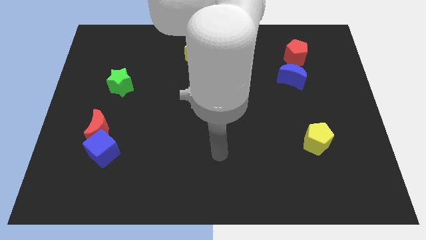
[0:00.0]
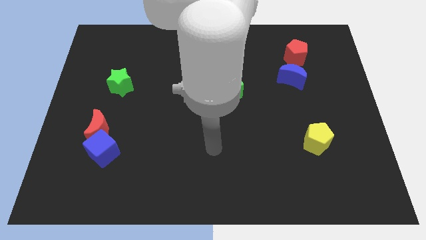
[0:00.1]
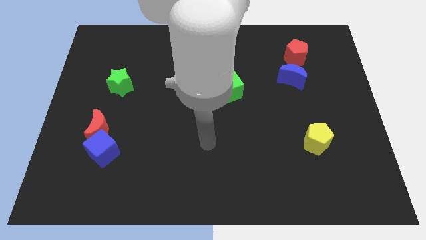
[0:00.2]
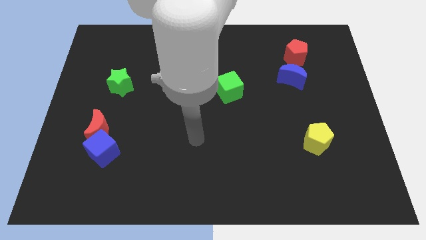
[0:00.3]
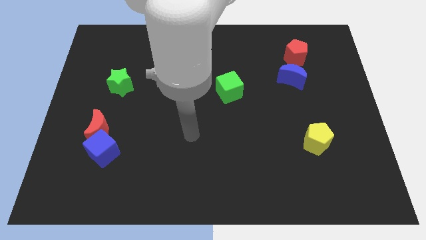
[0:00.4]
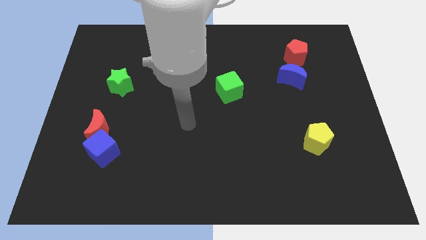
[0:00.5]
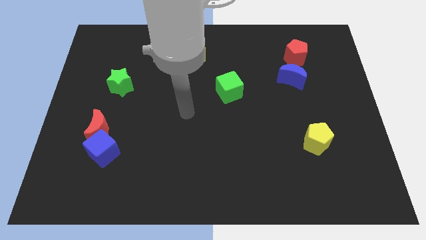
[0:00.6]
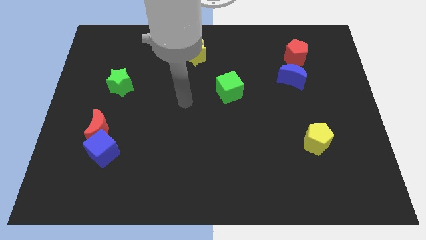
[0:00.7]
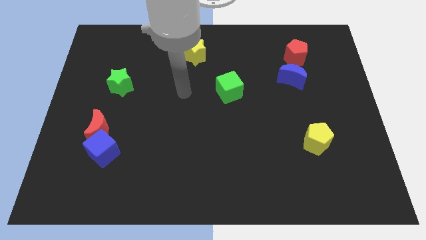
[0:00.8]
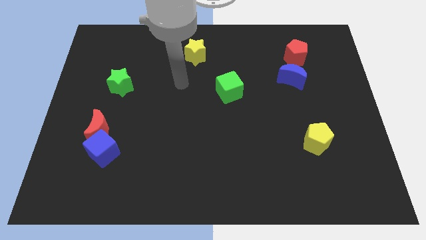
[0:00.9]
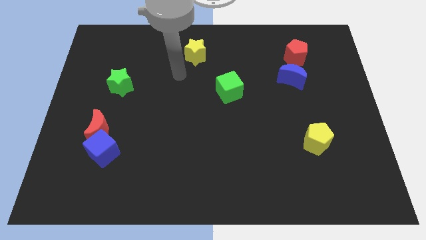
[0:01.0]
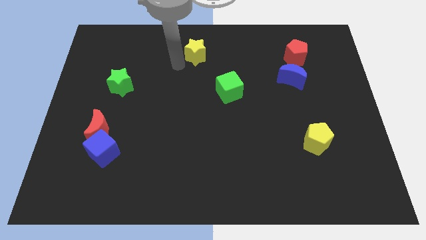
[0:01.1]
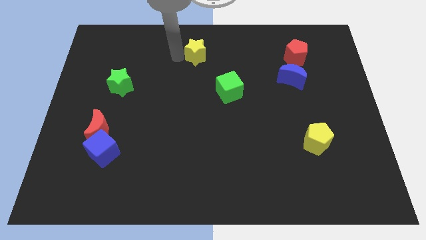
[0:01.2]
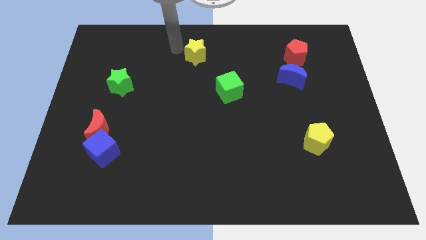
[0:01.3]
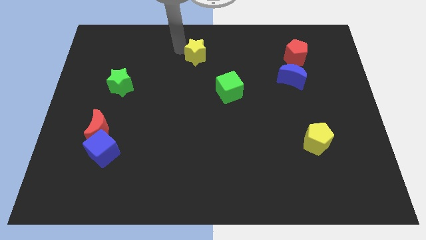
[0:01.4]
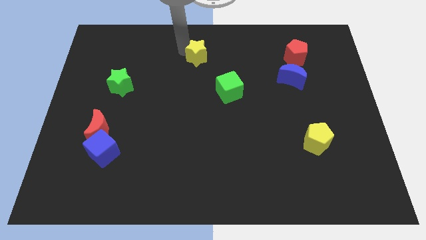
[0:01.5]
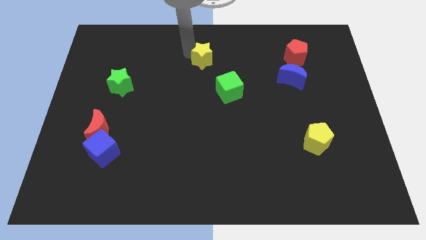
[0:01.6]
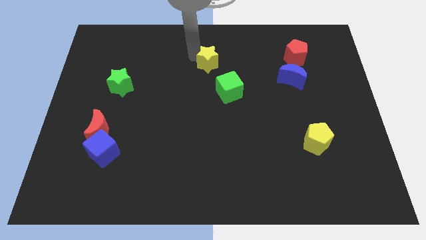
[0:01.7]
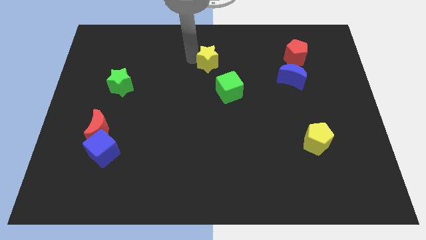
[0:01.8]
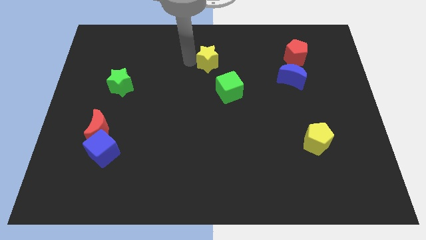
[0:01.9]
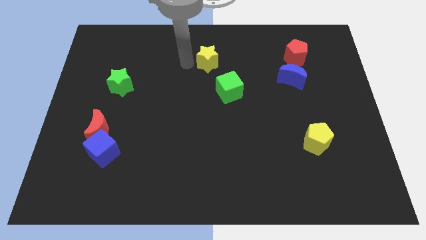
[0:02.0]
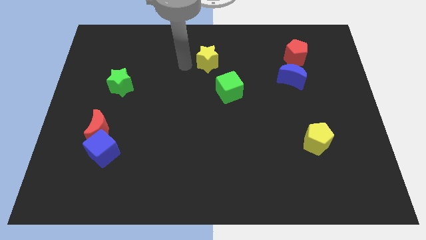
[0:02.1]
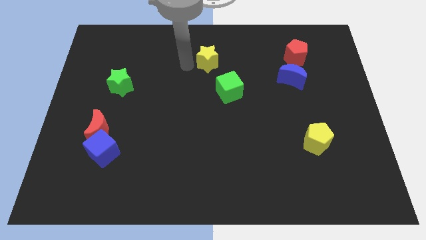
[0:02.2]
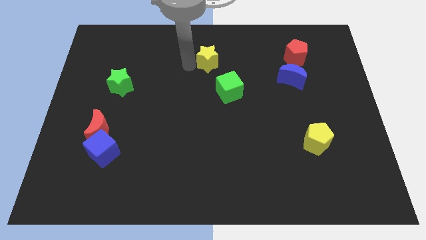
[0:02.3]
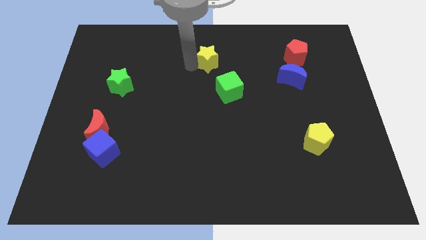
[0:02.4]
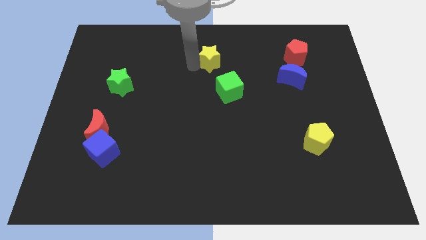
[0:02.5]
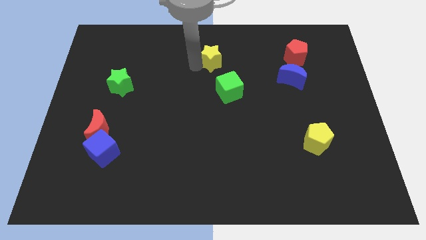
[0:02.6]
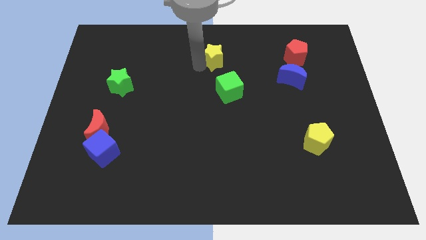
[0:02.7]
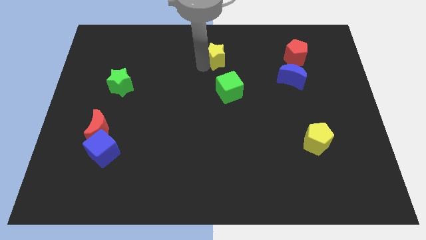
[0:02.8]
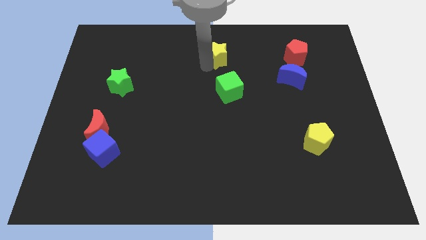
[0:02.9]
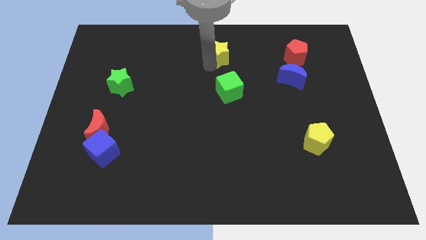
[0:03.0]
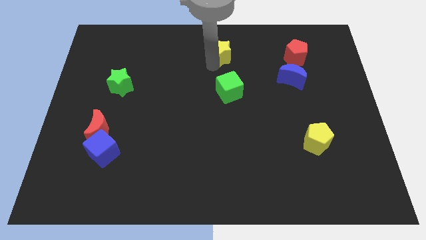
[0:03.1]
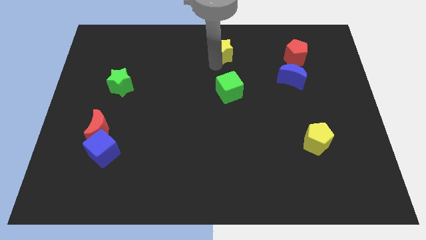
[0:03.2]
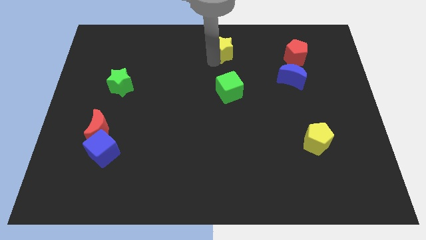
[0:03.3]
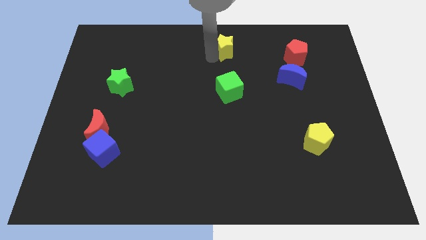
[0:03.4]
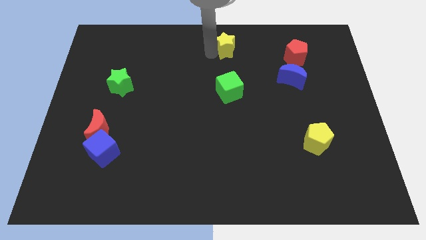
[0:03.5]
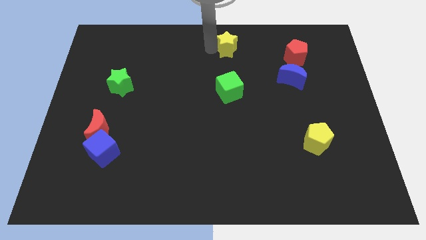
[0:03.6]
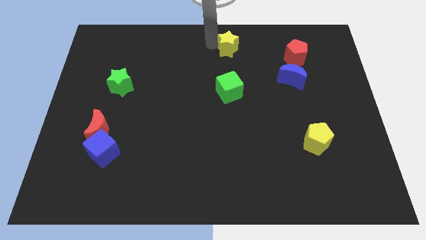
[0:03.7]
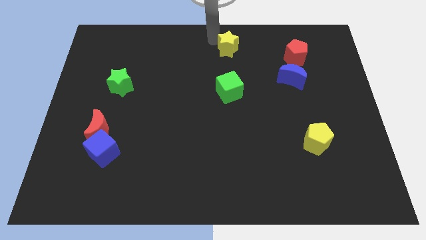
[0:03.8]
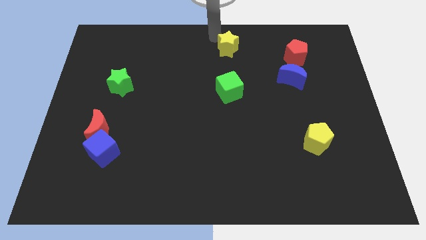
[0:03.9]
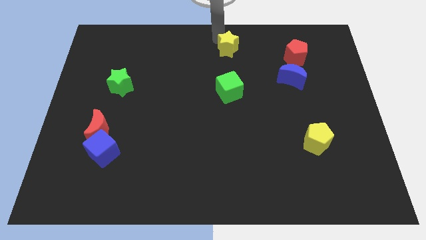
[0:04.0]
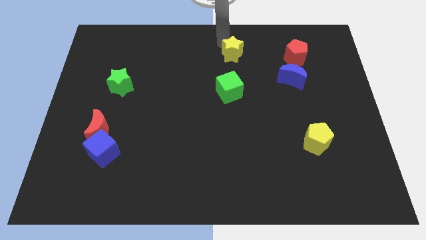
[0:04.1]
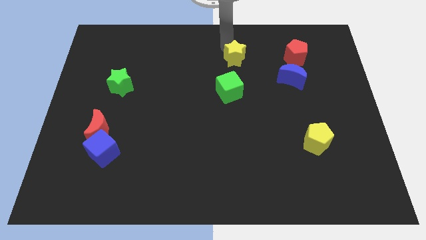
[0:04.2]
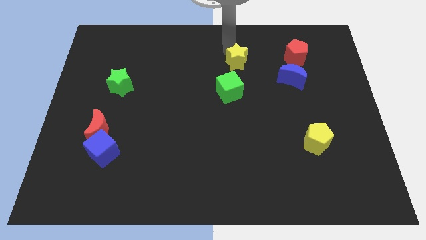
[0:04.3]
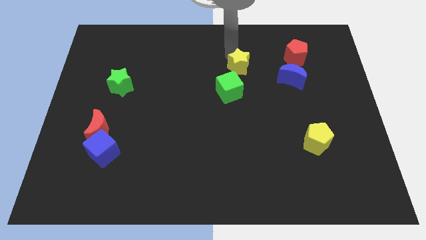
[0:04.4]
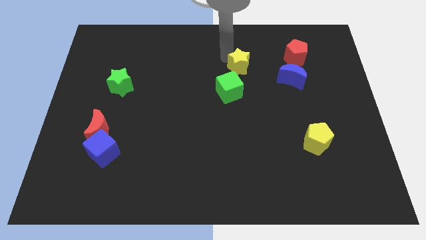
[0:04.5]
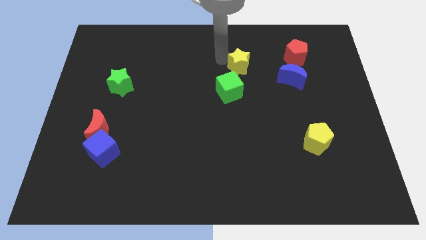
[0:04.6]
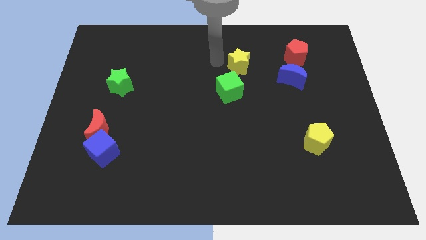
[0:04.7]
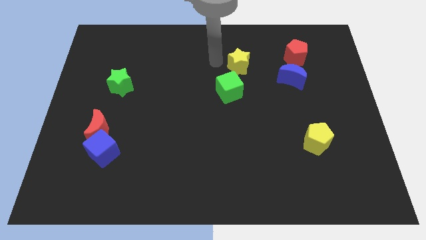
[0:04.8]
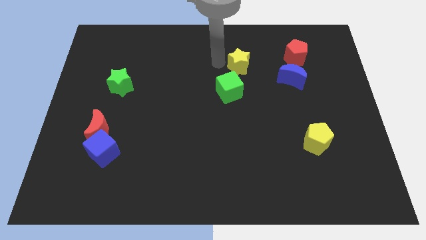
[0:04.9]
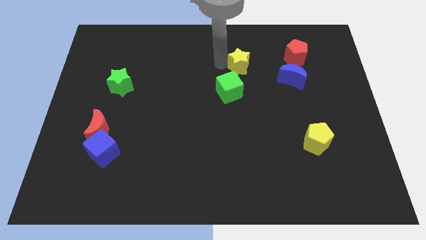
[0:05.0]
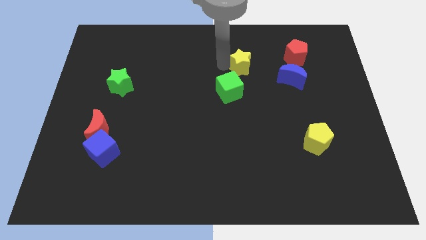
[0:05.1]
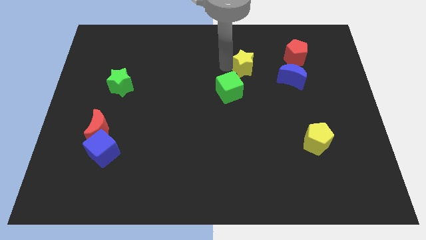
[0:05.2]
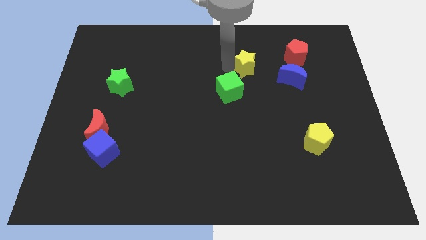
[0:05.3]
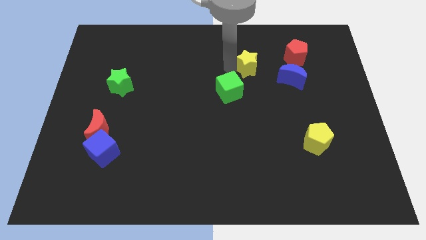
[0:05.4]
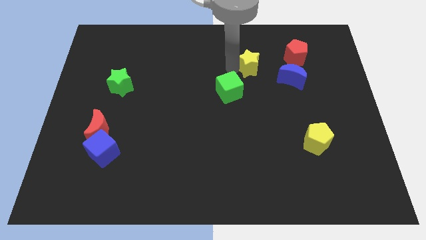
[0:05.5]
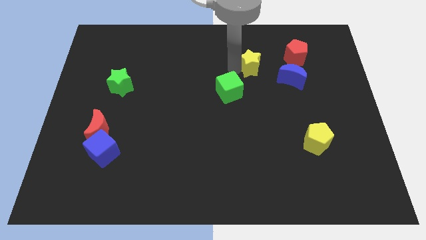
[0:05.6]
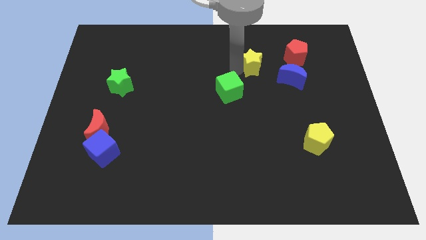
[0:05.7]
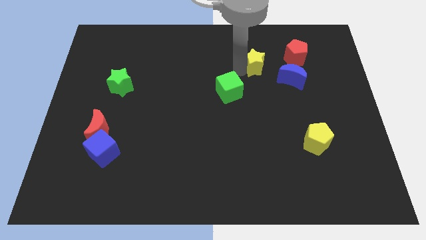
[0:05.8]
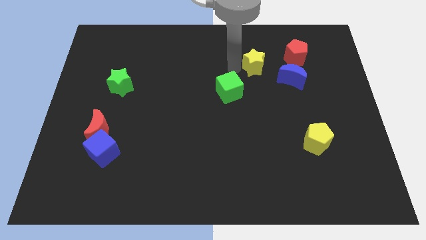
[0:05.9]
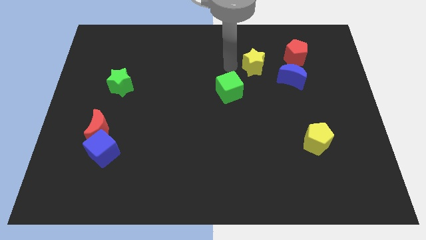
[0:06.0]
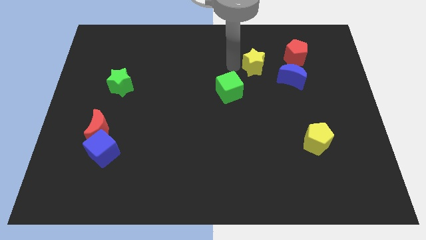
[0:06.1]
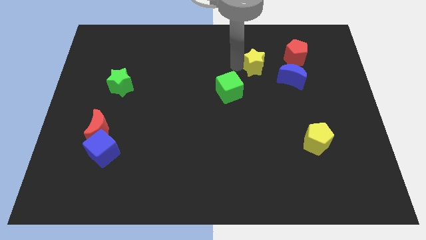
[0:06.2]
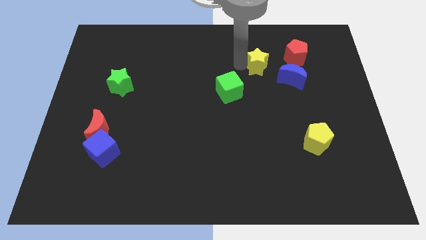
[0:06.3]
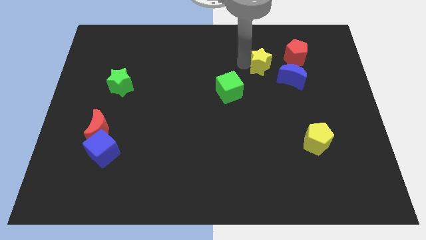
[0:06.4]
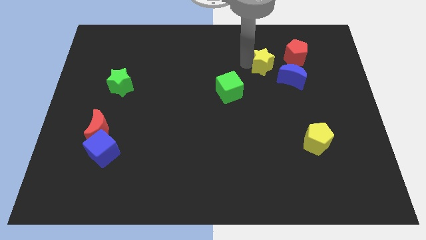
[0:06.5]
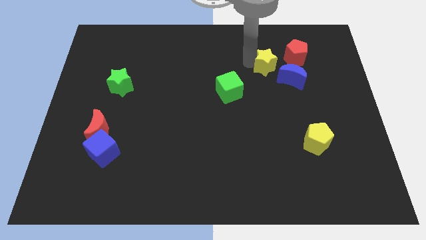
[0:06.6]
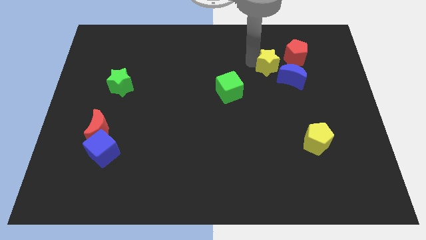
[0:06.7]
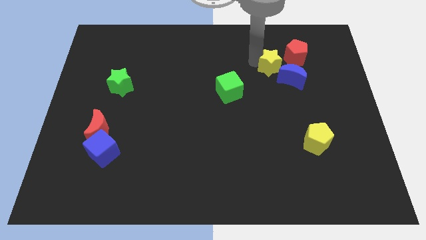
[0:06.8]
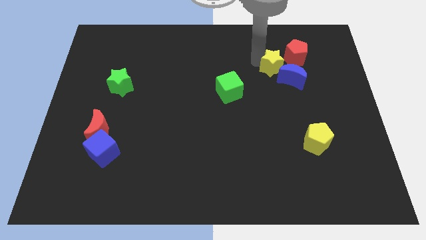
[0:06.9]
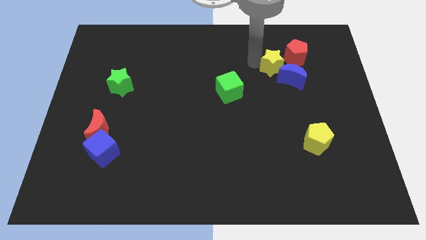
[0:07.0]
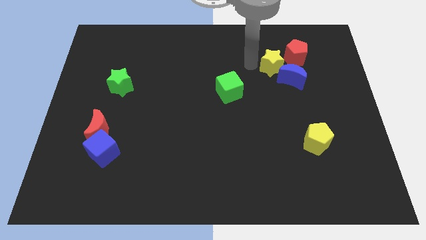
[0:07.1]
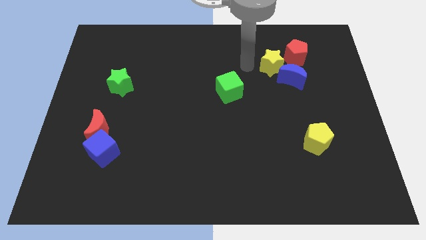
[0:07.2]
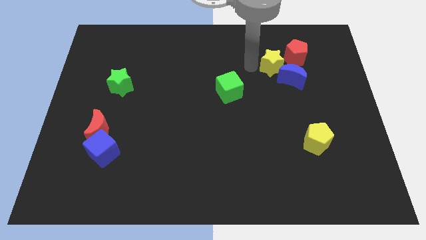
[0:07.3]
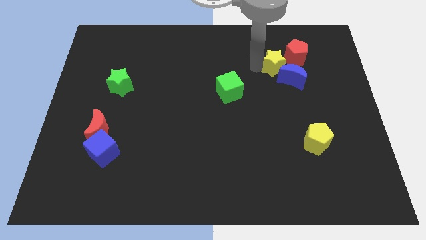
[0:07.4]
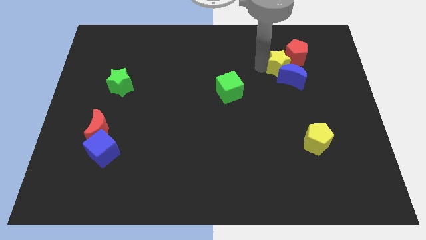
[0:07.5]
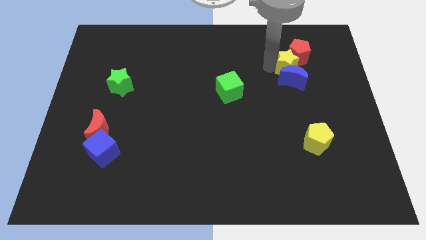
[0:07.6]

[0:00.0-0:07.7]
slide the yellow star to the top right side of the blue moon

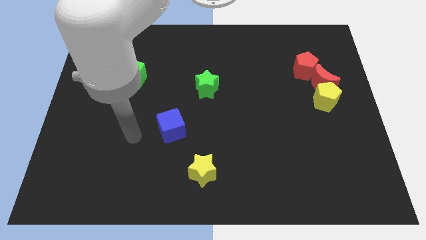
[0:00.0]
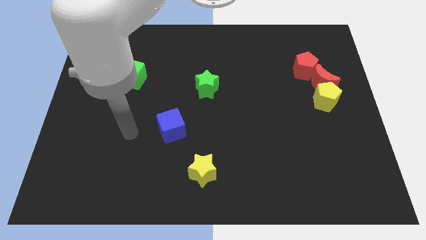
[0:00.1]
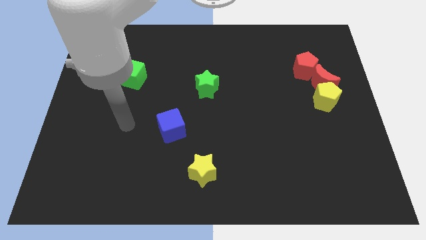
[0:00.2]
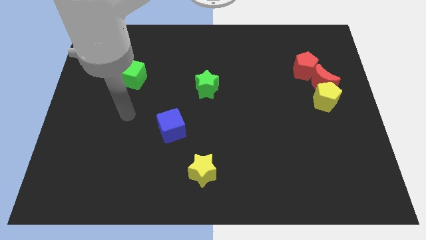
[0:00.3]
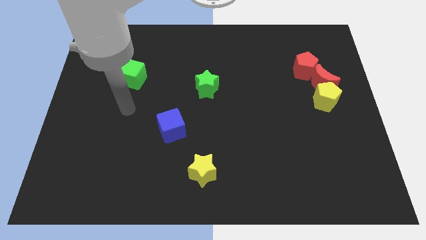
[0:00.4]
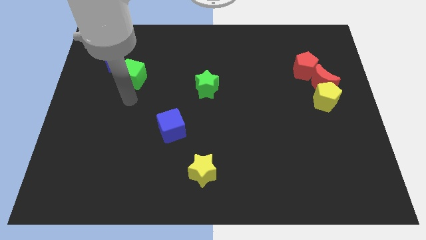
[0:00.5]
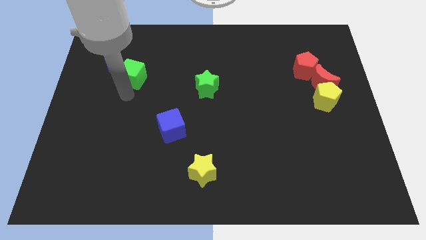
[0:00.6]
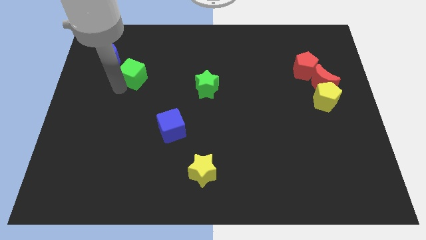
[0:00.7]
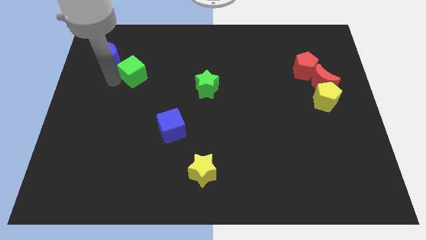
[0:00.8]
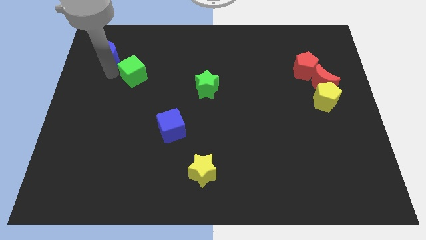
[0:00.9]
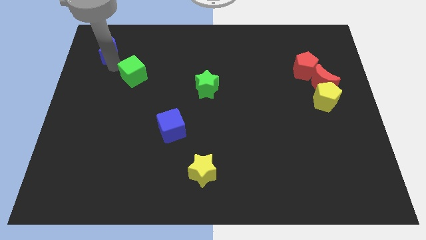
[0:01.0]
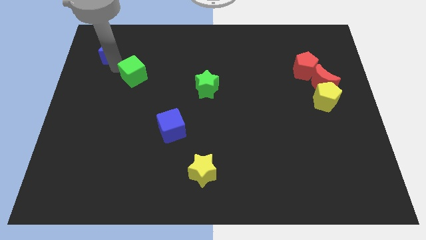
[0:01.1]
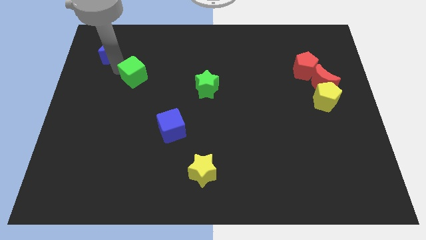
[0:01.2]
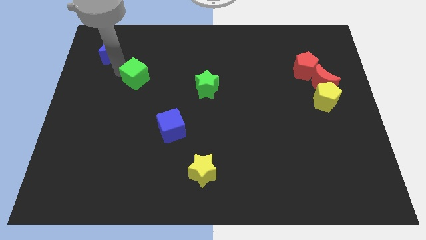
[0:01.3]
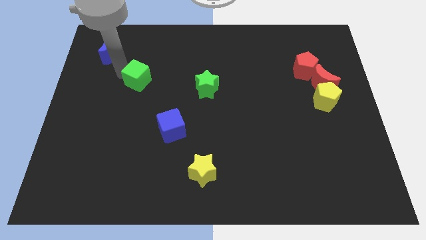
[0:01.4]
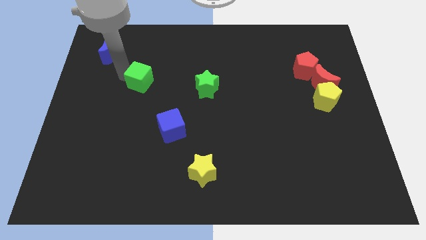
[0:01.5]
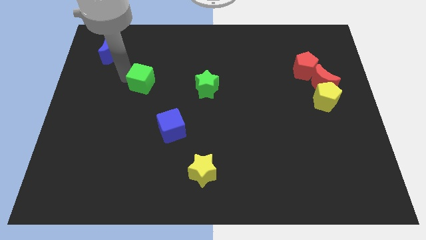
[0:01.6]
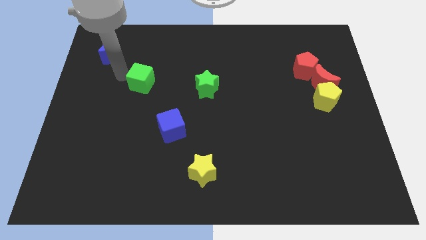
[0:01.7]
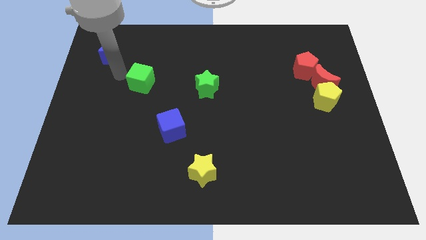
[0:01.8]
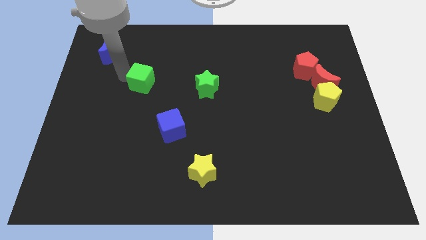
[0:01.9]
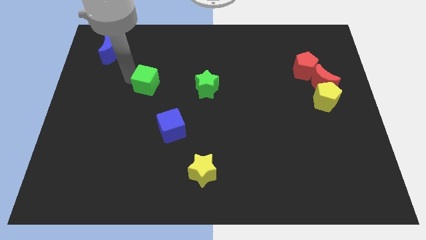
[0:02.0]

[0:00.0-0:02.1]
put the green cube to the left of the green star
